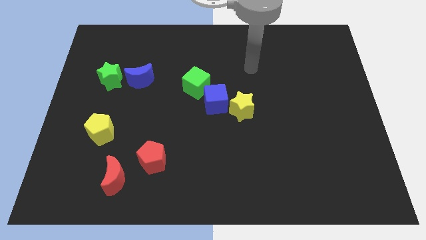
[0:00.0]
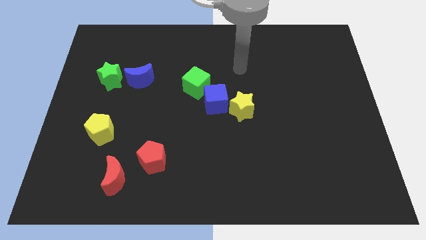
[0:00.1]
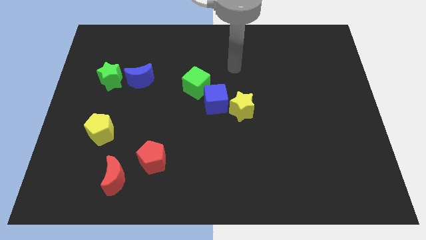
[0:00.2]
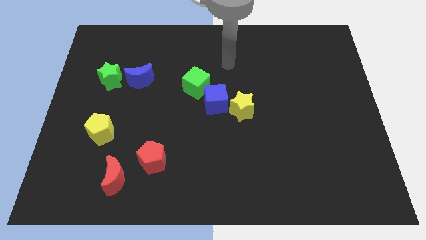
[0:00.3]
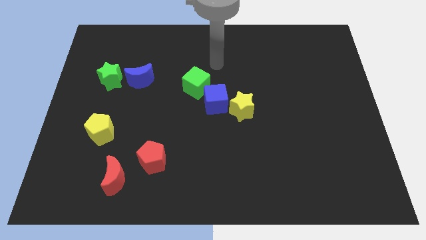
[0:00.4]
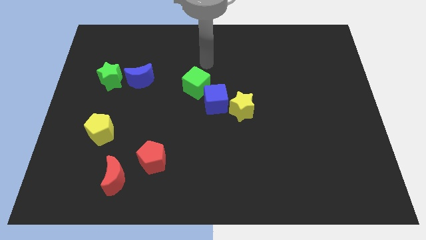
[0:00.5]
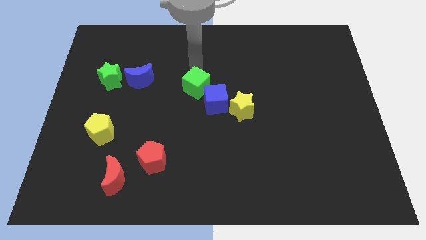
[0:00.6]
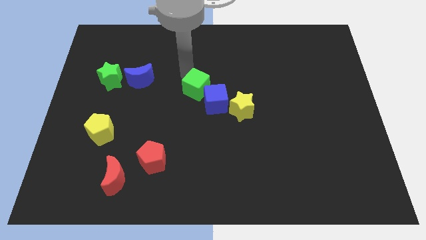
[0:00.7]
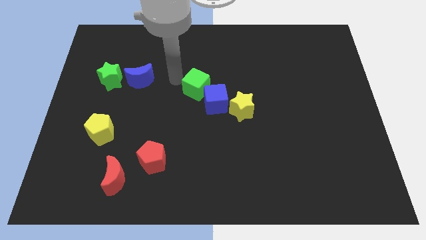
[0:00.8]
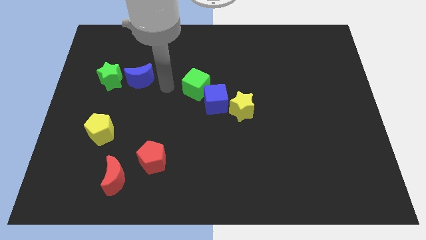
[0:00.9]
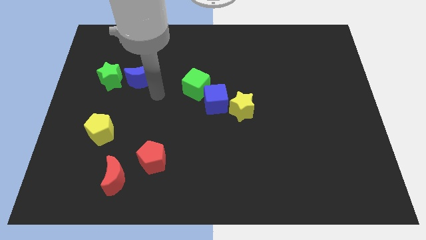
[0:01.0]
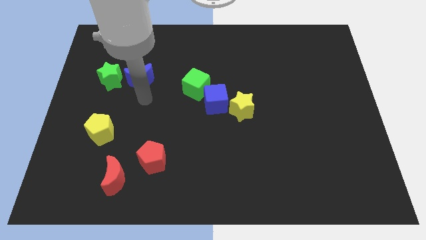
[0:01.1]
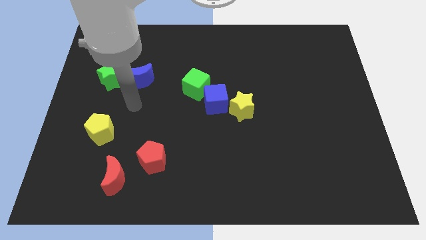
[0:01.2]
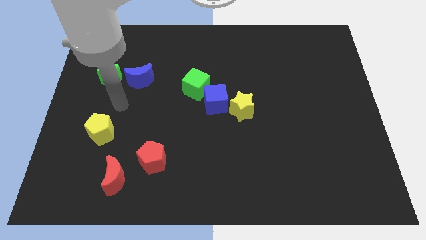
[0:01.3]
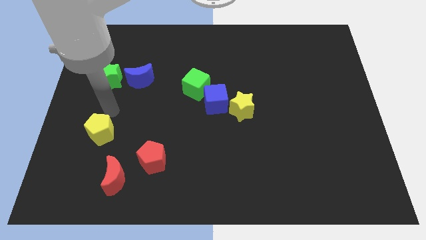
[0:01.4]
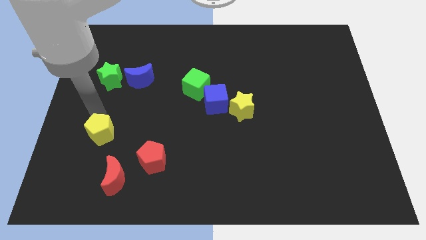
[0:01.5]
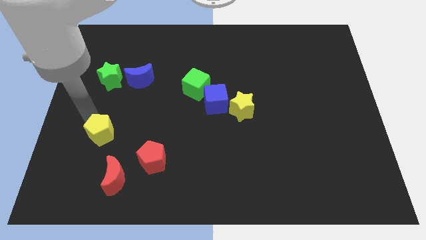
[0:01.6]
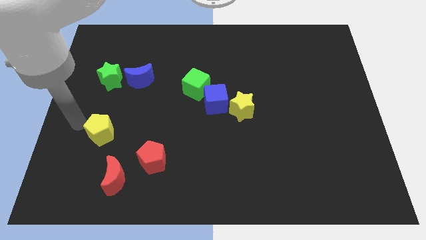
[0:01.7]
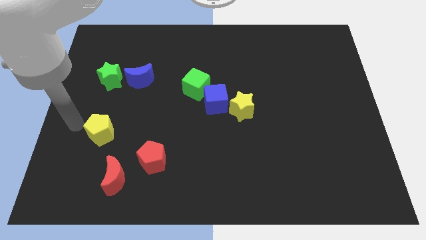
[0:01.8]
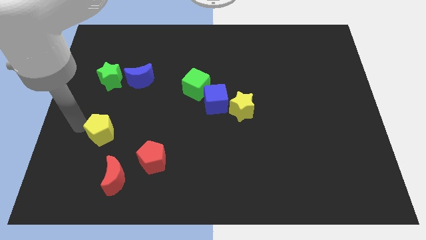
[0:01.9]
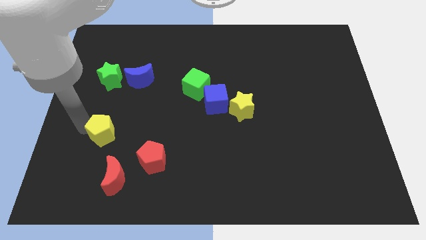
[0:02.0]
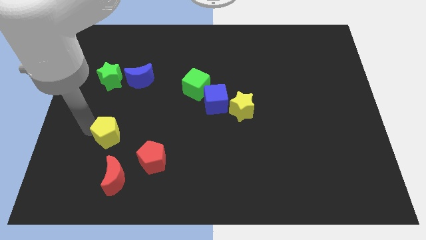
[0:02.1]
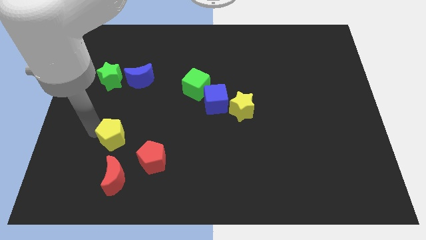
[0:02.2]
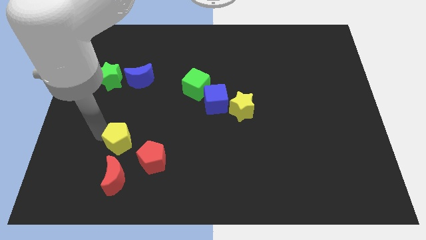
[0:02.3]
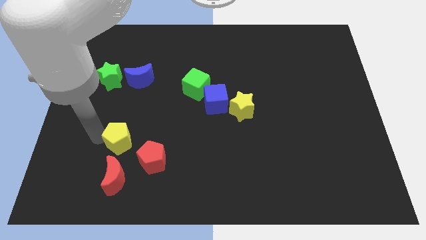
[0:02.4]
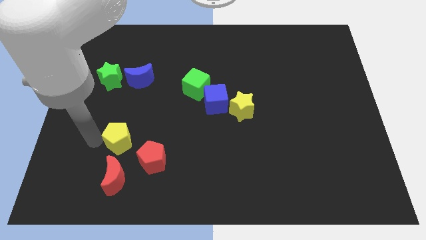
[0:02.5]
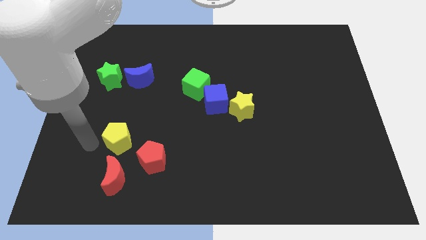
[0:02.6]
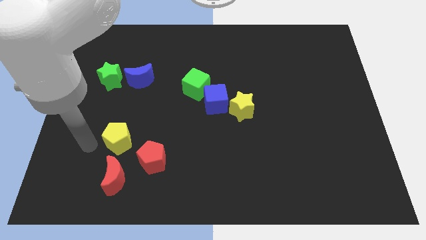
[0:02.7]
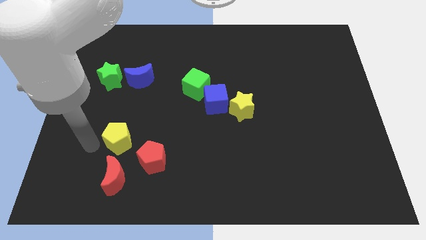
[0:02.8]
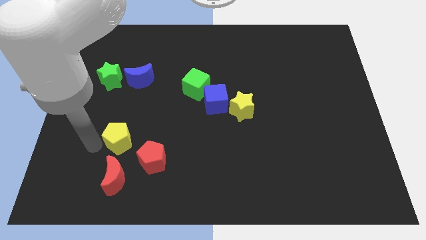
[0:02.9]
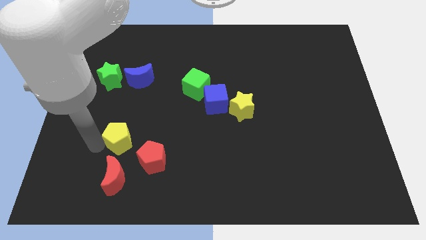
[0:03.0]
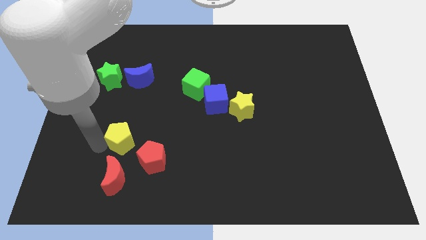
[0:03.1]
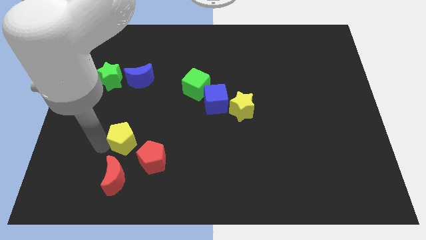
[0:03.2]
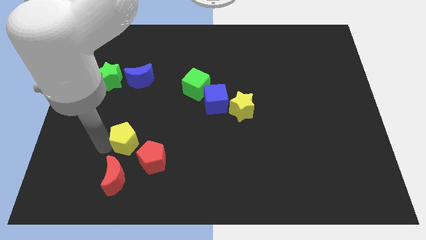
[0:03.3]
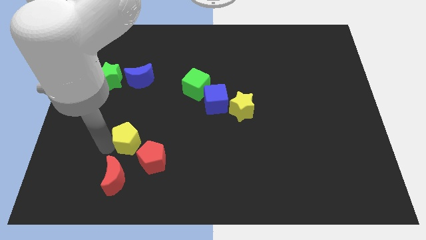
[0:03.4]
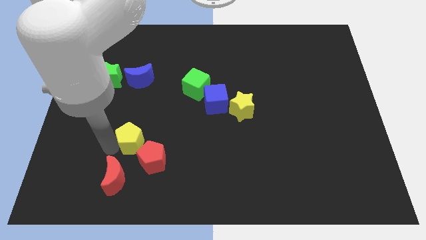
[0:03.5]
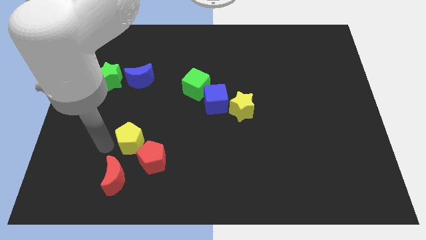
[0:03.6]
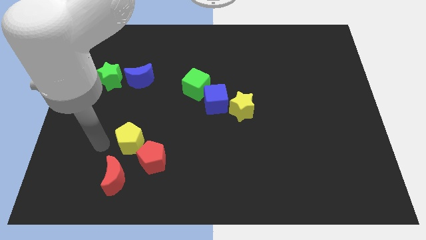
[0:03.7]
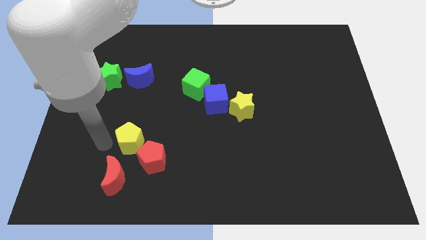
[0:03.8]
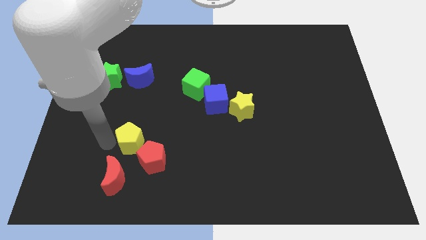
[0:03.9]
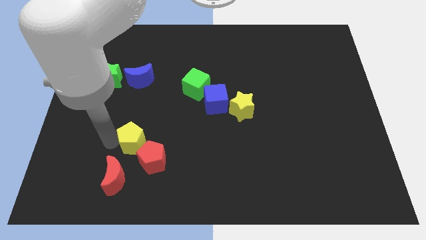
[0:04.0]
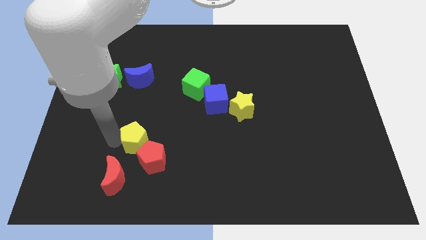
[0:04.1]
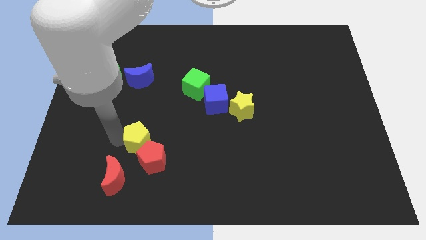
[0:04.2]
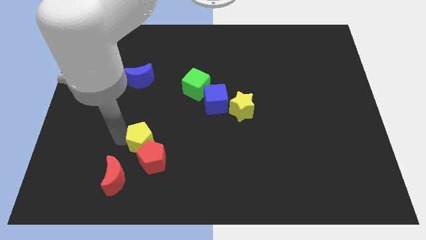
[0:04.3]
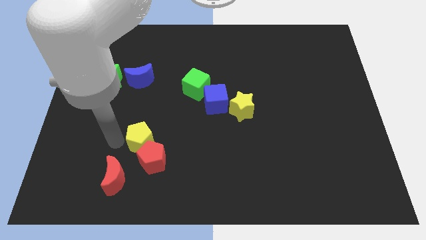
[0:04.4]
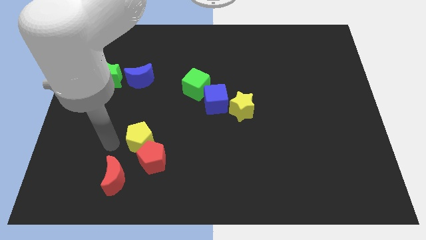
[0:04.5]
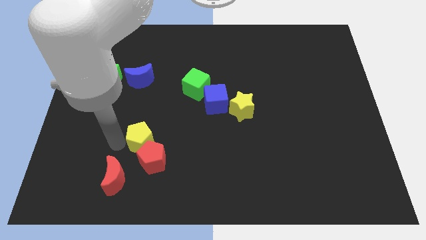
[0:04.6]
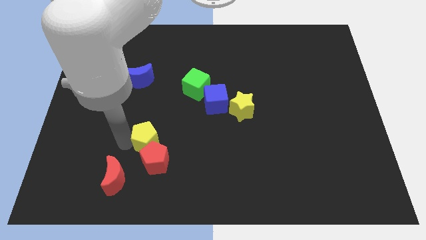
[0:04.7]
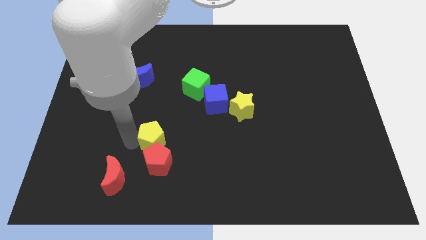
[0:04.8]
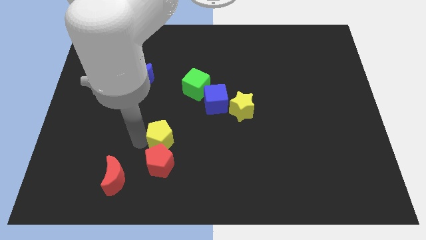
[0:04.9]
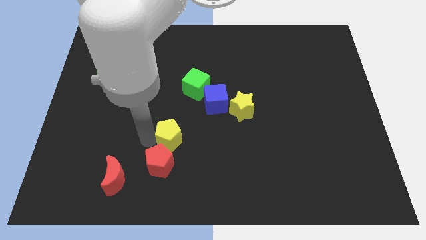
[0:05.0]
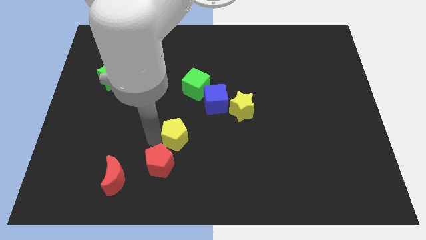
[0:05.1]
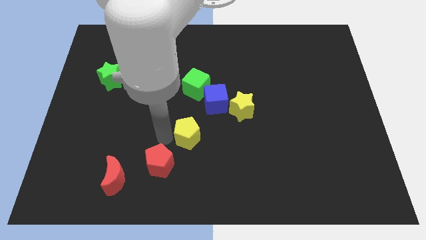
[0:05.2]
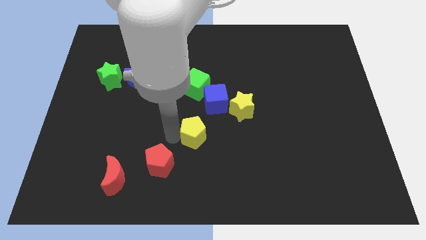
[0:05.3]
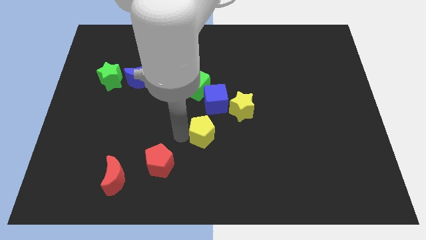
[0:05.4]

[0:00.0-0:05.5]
slide the yellow pentagon to the bottom side of the blue cube

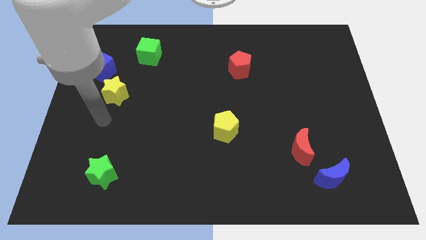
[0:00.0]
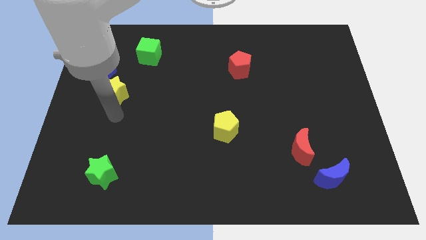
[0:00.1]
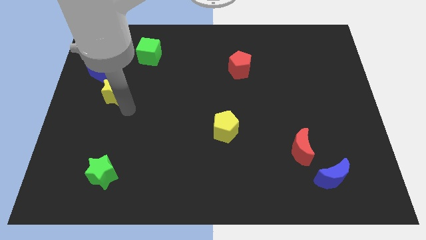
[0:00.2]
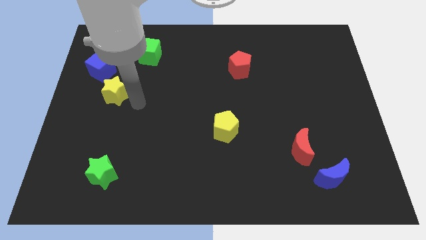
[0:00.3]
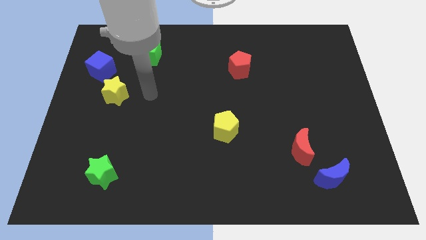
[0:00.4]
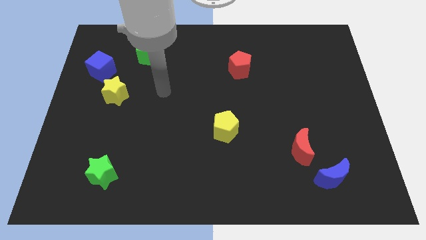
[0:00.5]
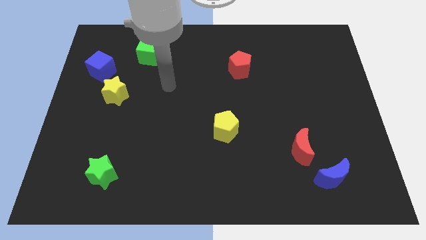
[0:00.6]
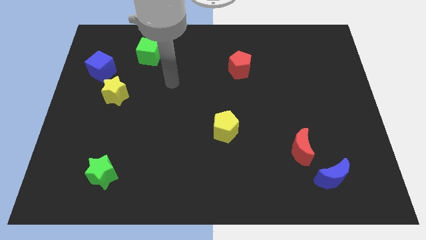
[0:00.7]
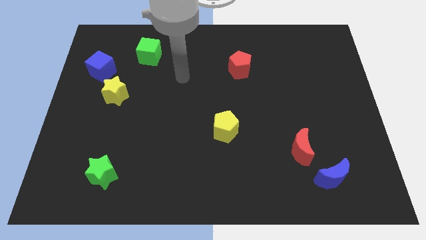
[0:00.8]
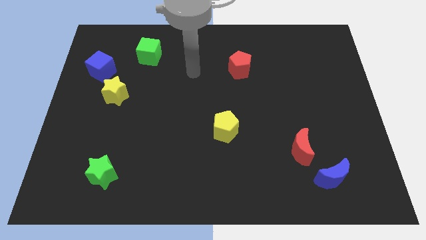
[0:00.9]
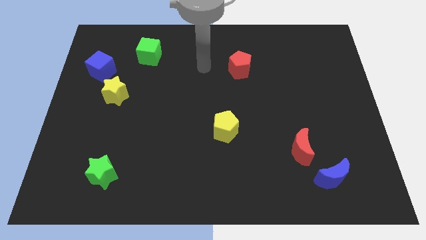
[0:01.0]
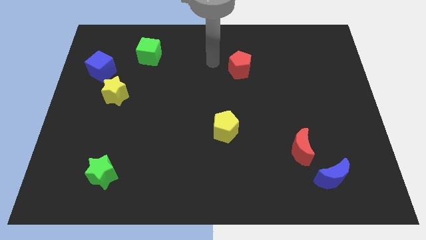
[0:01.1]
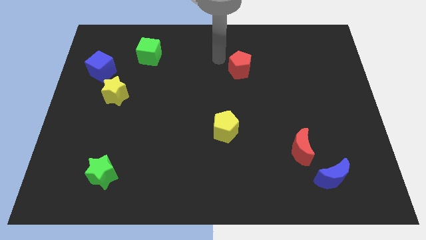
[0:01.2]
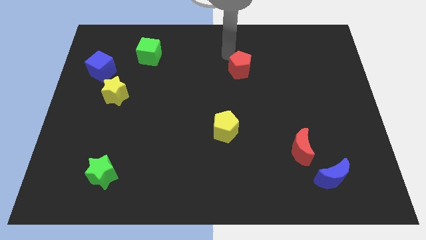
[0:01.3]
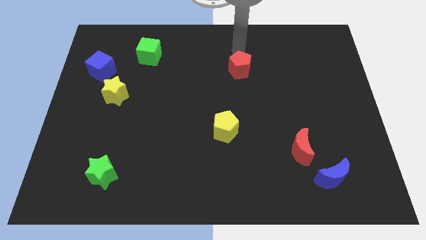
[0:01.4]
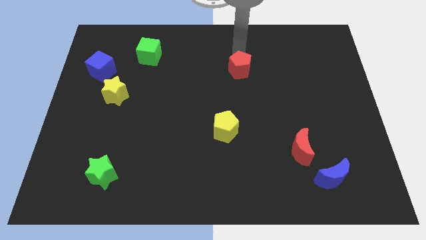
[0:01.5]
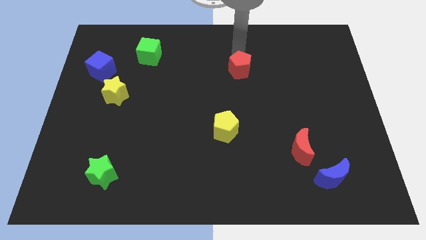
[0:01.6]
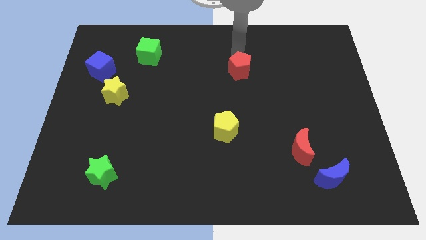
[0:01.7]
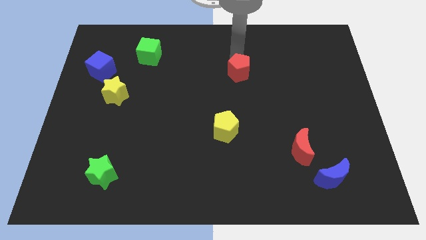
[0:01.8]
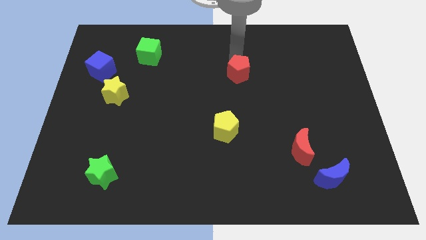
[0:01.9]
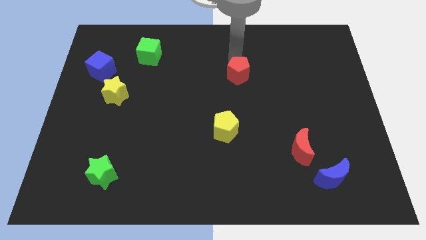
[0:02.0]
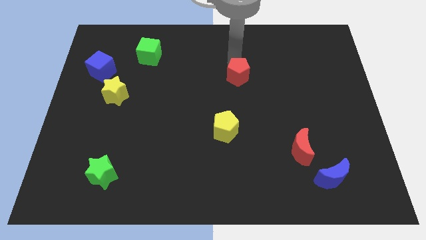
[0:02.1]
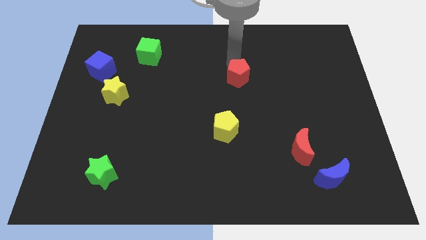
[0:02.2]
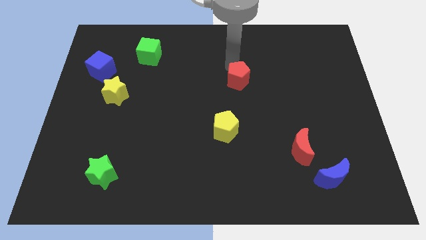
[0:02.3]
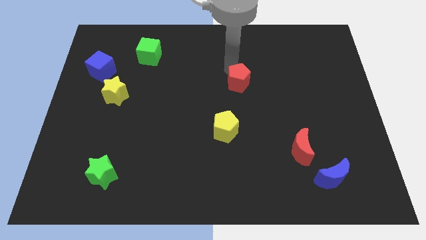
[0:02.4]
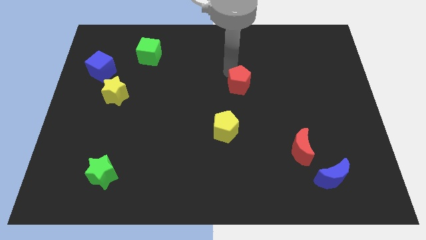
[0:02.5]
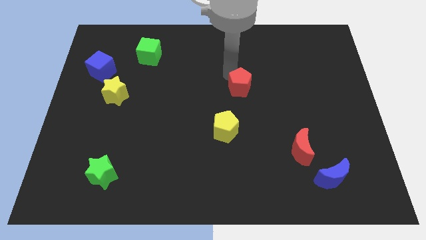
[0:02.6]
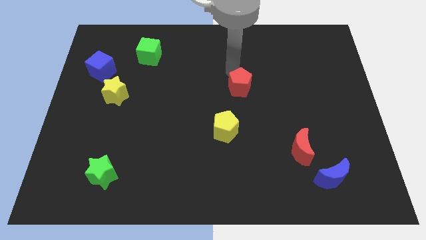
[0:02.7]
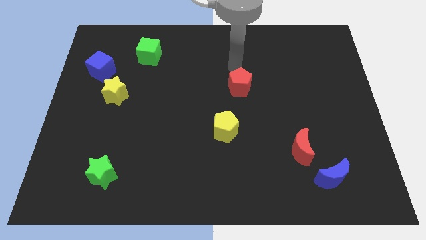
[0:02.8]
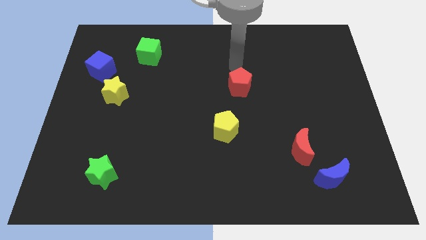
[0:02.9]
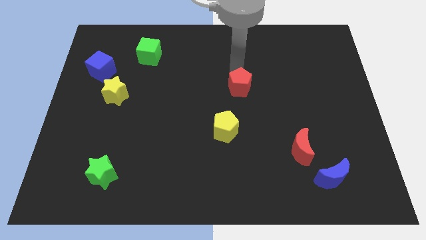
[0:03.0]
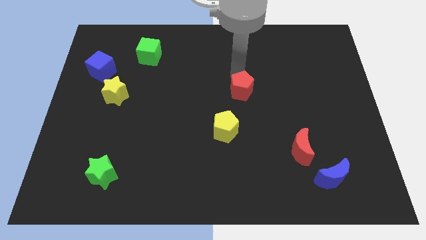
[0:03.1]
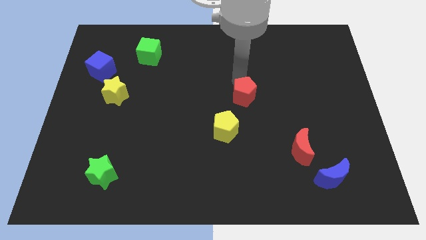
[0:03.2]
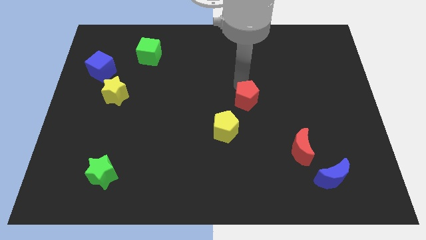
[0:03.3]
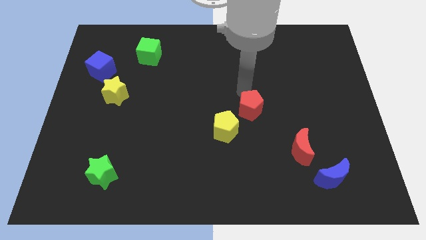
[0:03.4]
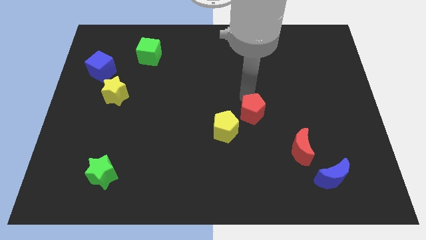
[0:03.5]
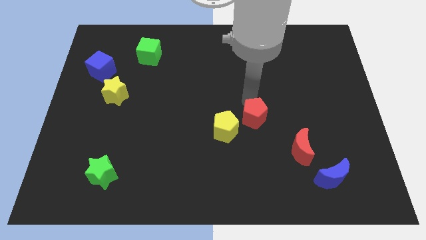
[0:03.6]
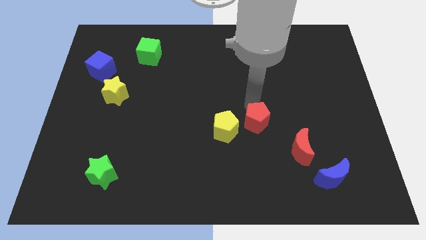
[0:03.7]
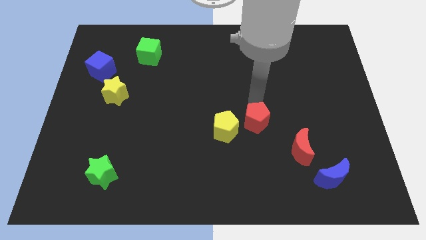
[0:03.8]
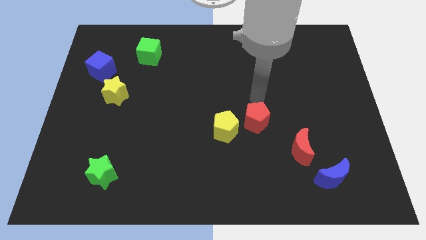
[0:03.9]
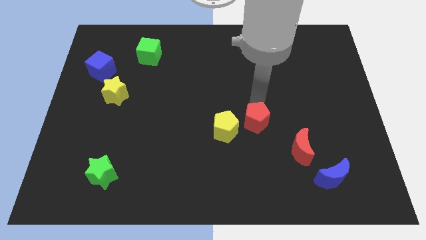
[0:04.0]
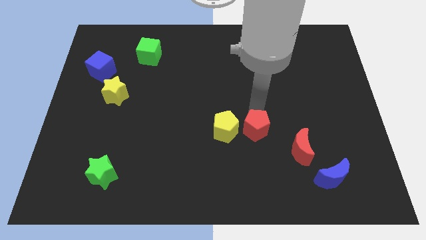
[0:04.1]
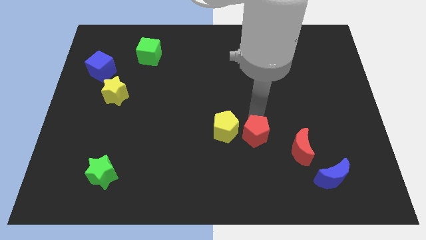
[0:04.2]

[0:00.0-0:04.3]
put the red pentagon just left of the red moon
